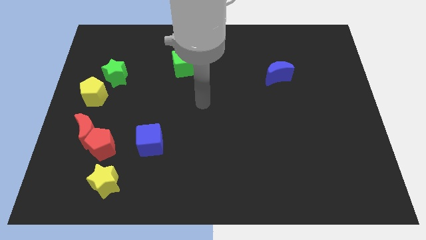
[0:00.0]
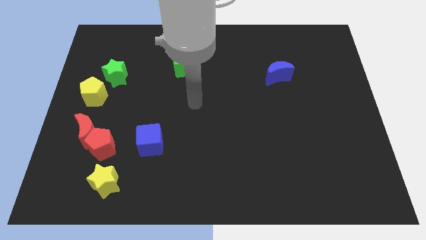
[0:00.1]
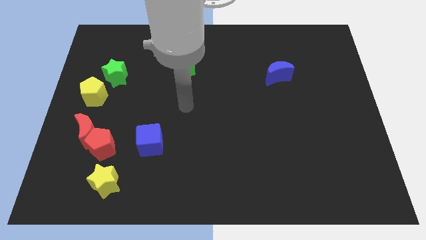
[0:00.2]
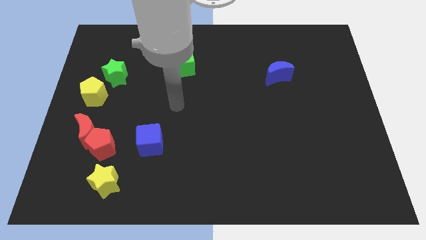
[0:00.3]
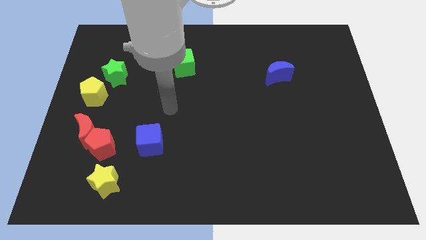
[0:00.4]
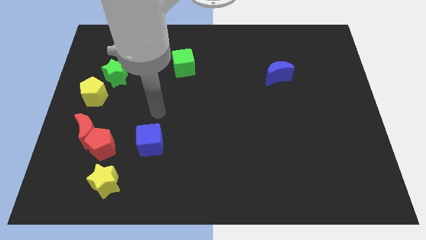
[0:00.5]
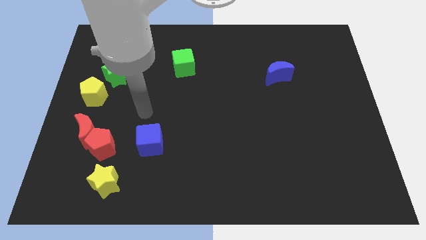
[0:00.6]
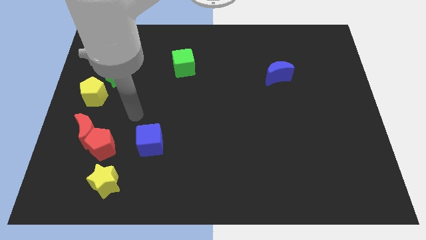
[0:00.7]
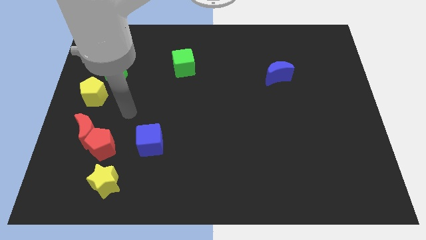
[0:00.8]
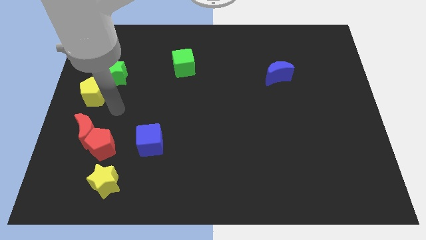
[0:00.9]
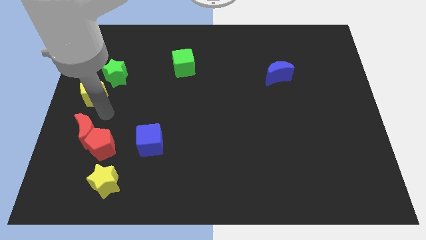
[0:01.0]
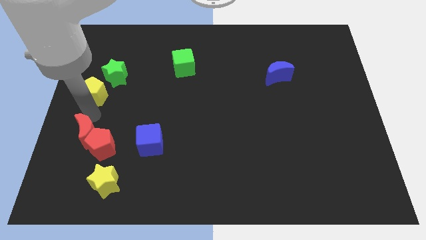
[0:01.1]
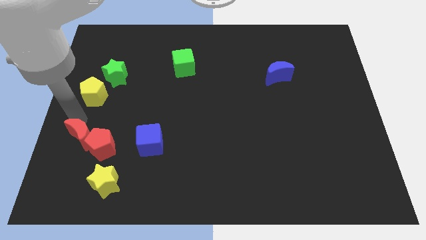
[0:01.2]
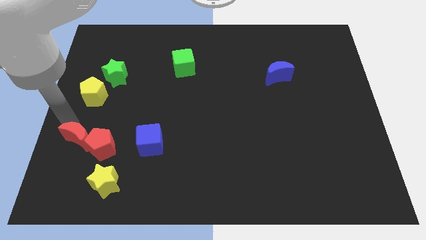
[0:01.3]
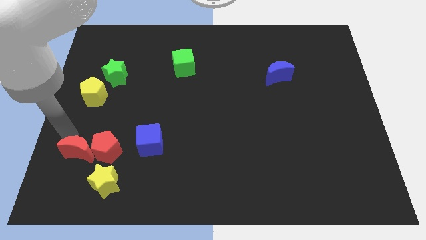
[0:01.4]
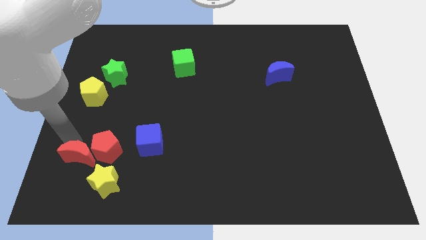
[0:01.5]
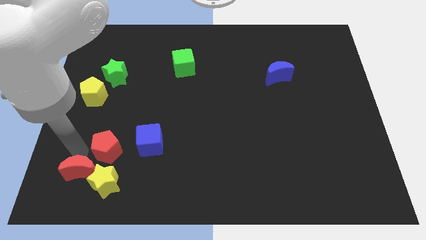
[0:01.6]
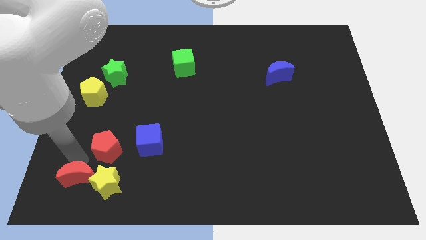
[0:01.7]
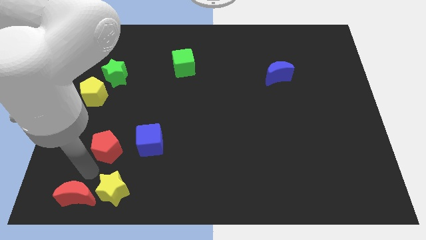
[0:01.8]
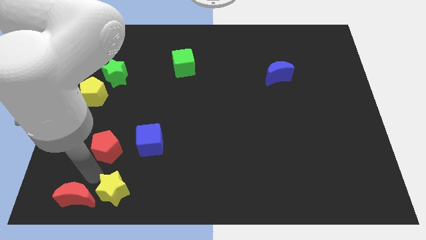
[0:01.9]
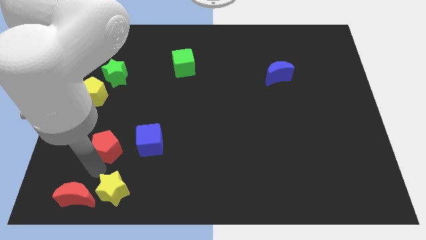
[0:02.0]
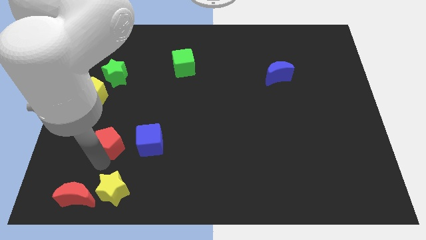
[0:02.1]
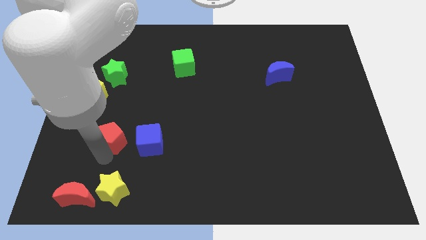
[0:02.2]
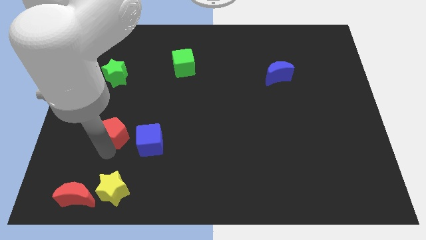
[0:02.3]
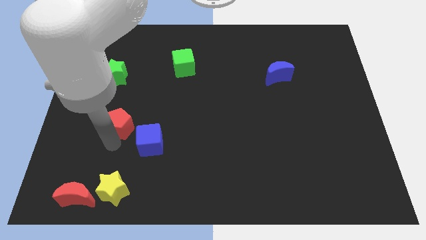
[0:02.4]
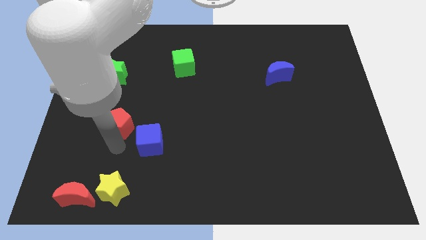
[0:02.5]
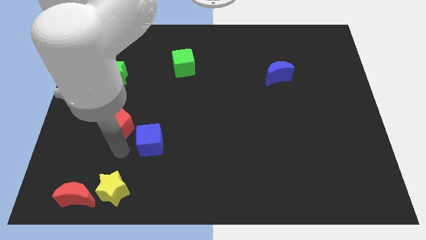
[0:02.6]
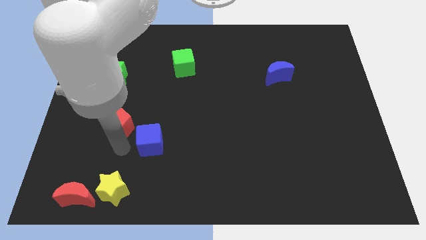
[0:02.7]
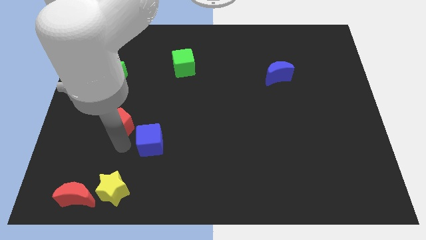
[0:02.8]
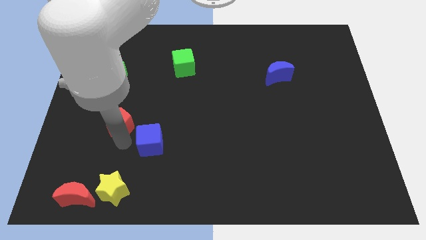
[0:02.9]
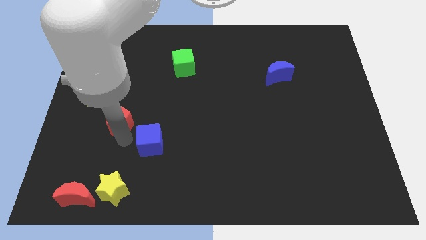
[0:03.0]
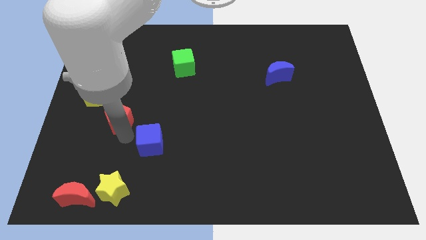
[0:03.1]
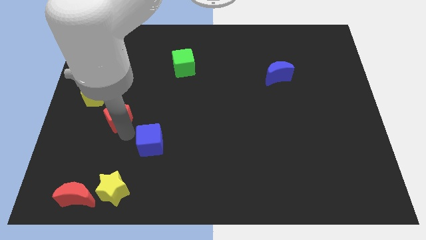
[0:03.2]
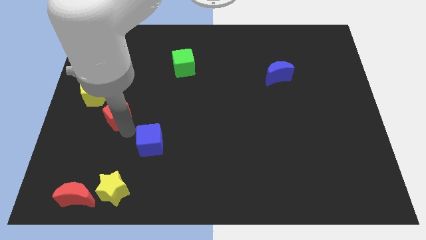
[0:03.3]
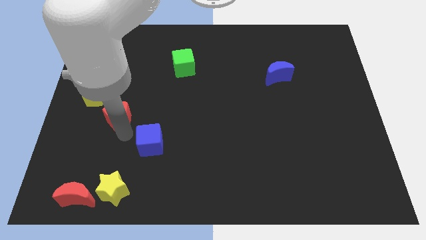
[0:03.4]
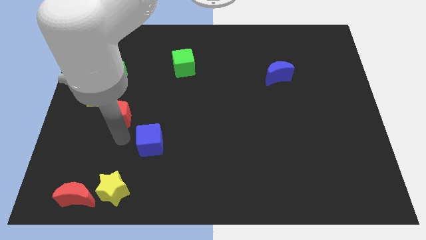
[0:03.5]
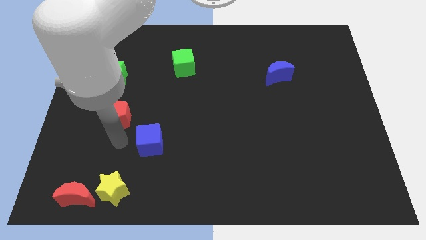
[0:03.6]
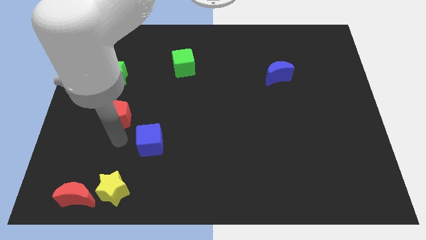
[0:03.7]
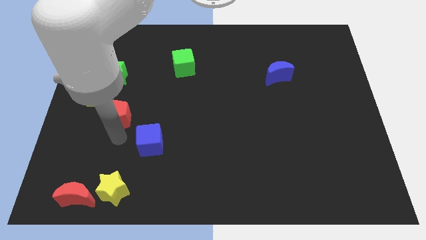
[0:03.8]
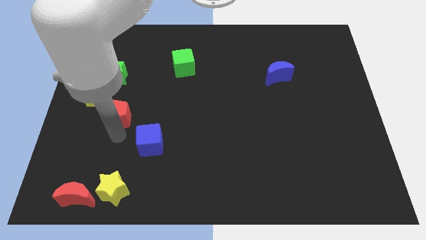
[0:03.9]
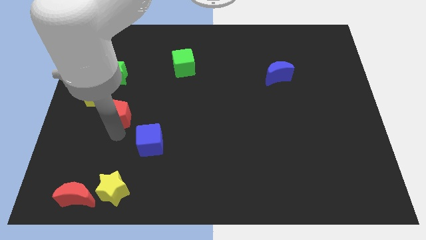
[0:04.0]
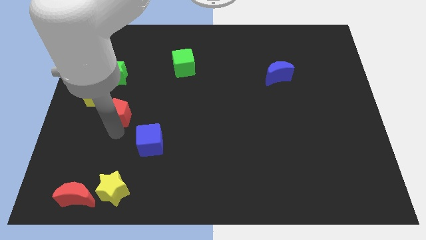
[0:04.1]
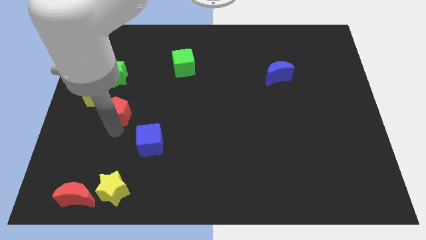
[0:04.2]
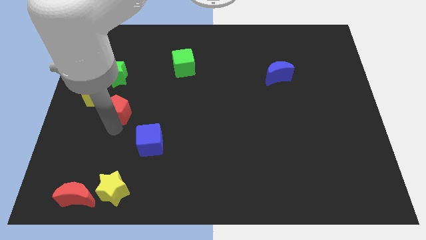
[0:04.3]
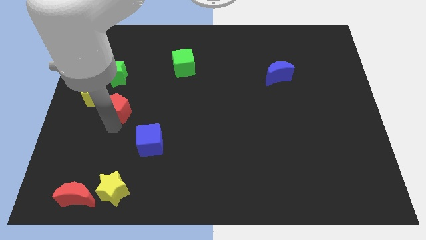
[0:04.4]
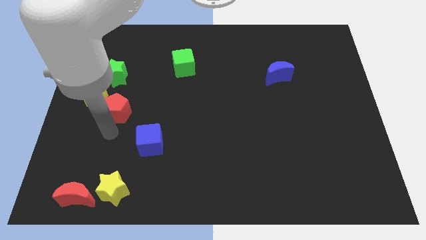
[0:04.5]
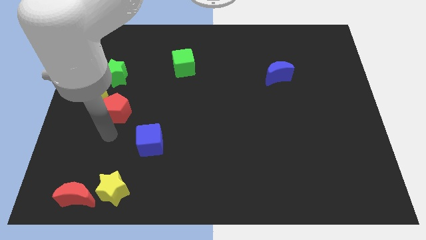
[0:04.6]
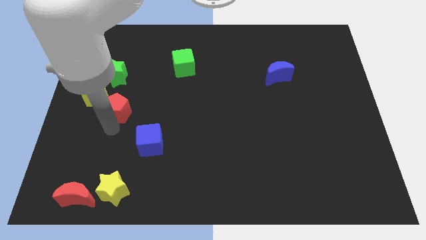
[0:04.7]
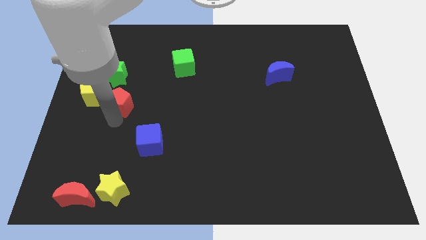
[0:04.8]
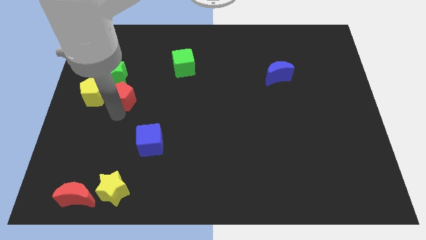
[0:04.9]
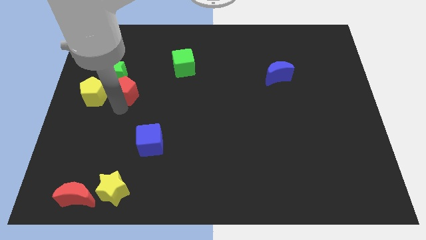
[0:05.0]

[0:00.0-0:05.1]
move the red pentagon to the top right of the yellow pentagon

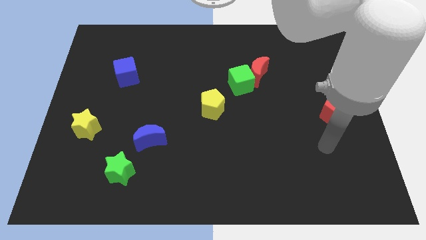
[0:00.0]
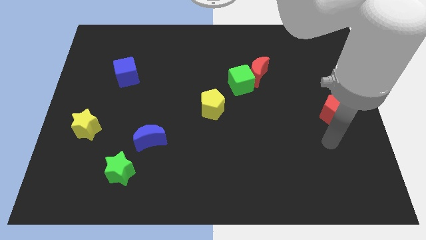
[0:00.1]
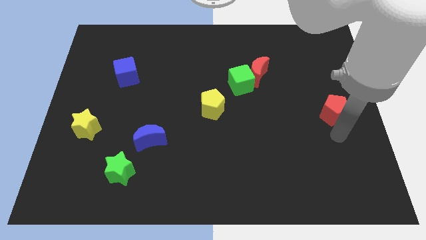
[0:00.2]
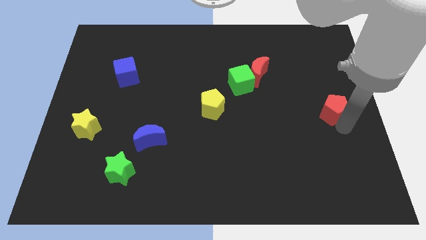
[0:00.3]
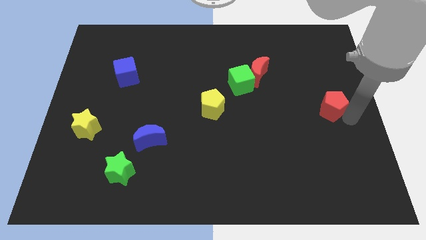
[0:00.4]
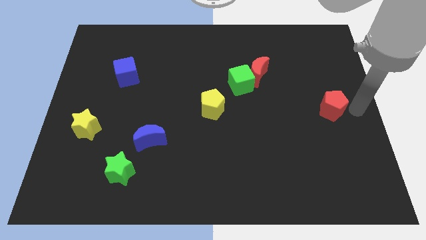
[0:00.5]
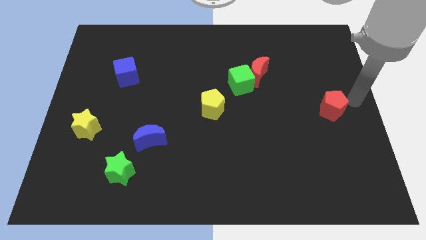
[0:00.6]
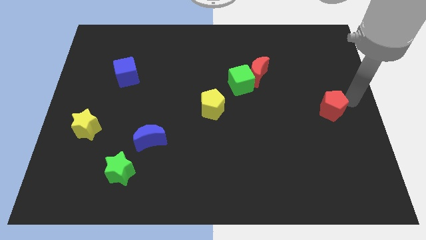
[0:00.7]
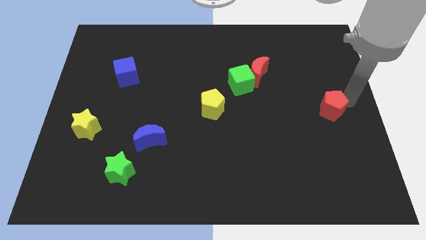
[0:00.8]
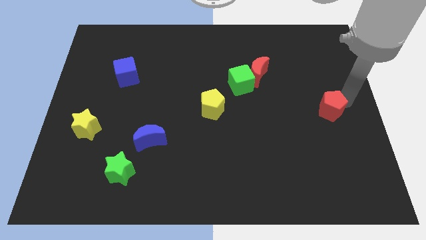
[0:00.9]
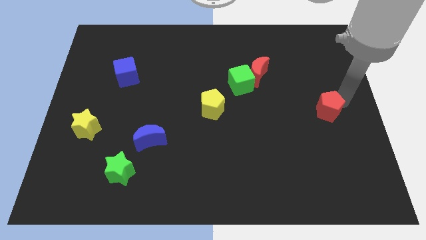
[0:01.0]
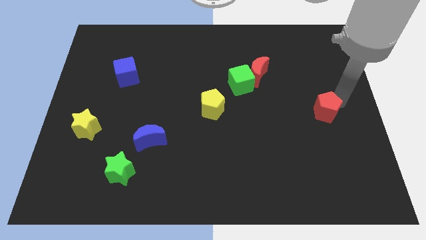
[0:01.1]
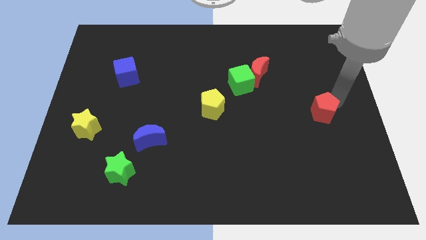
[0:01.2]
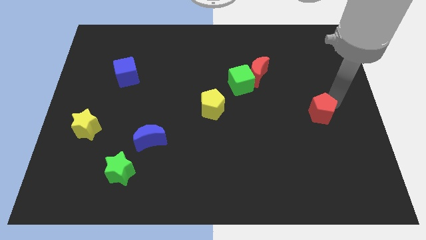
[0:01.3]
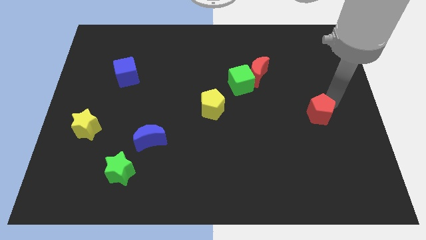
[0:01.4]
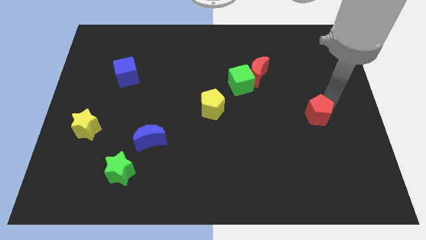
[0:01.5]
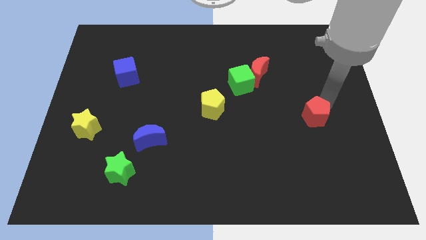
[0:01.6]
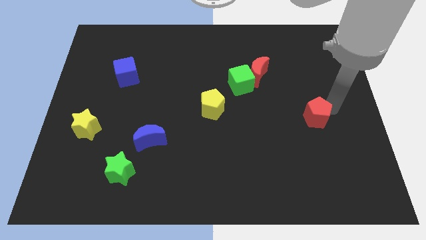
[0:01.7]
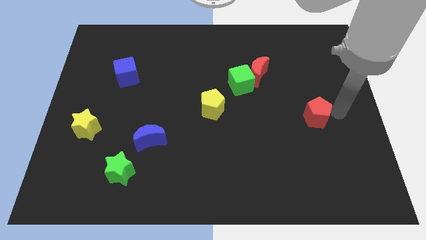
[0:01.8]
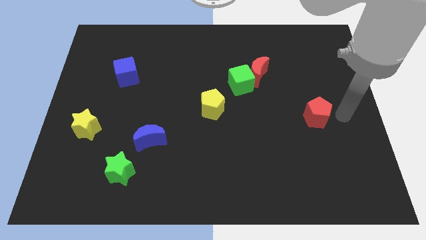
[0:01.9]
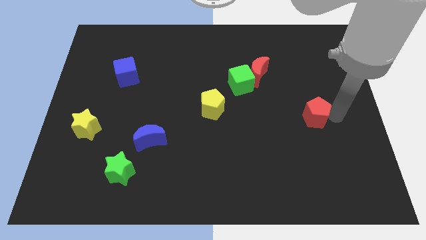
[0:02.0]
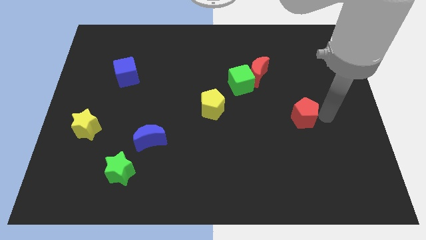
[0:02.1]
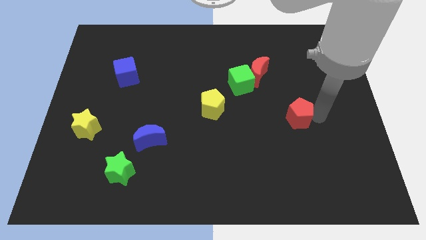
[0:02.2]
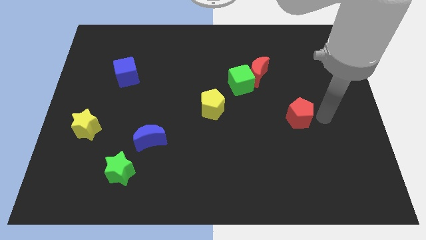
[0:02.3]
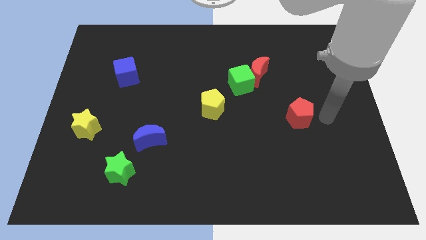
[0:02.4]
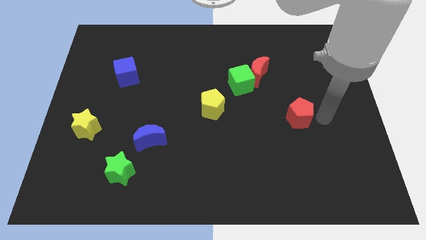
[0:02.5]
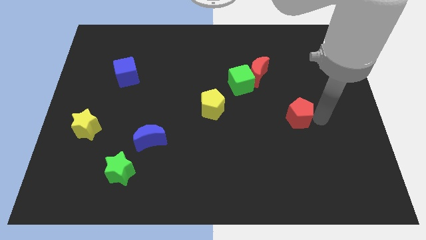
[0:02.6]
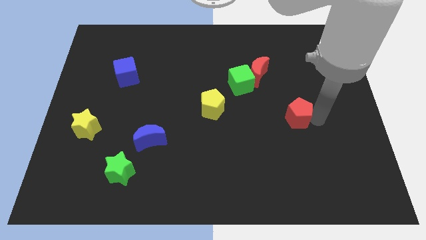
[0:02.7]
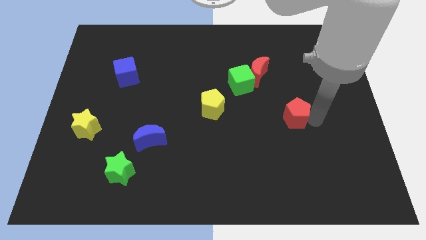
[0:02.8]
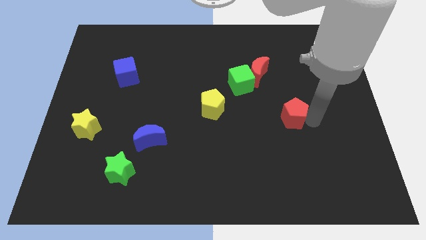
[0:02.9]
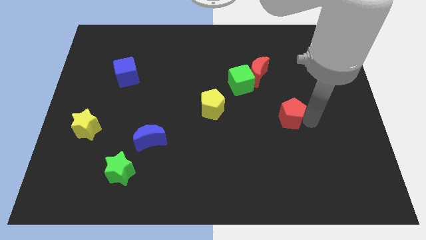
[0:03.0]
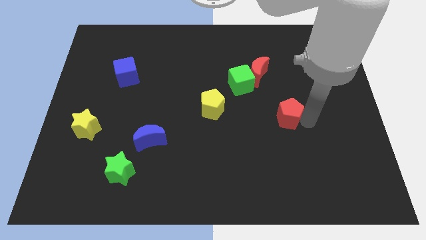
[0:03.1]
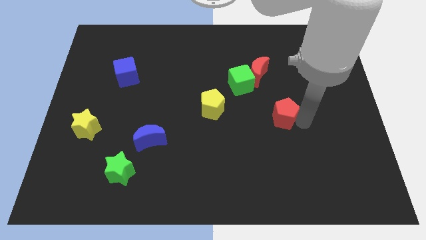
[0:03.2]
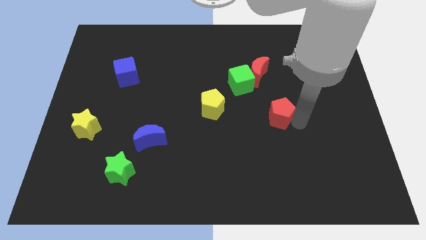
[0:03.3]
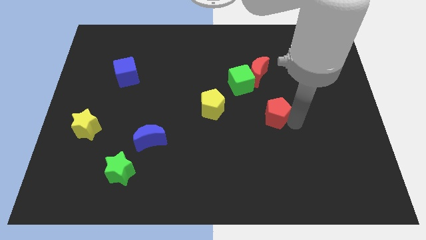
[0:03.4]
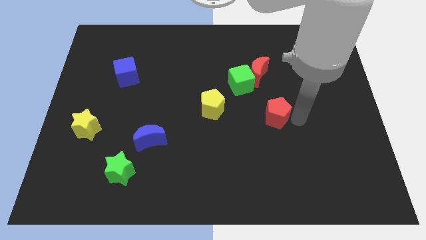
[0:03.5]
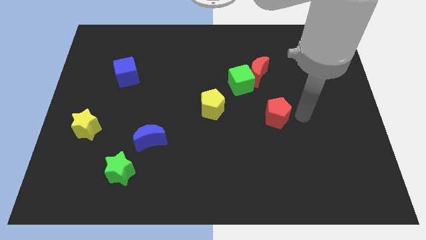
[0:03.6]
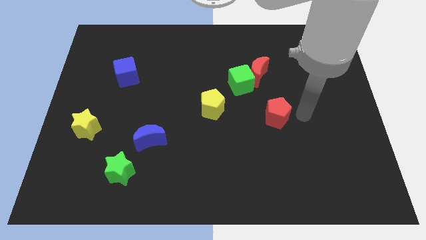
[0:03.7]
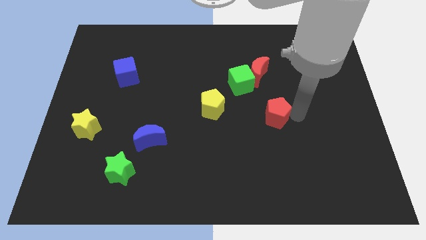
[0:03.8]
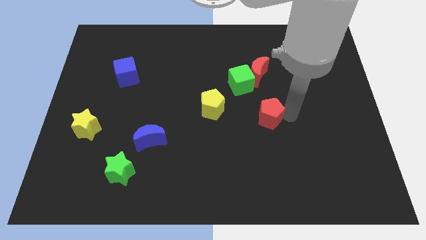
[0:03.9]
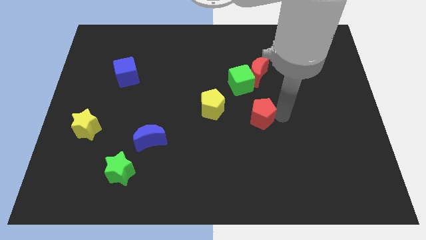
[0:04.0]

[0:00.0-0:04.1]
slide the red pentagon below the green cube
